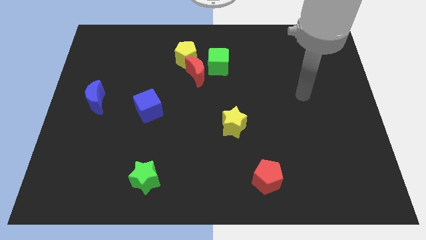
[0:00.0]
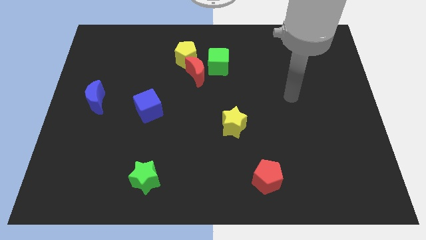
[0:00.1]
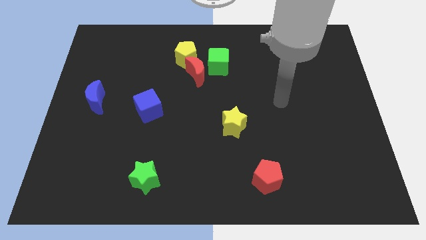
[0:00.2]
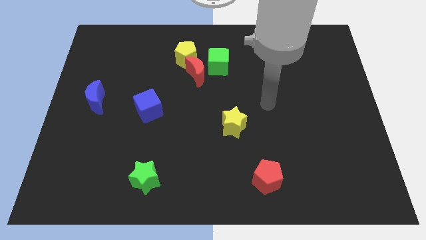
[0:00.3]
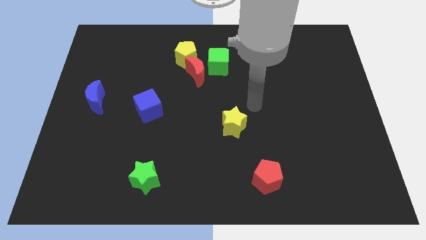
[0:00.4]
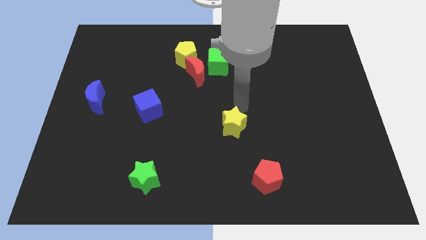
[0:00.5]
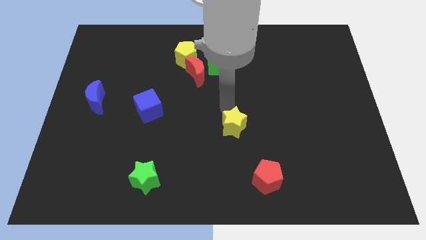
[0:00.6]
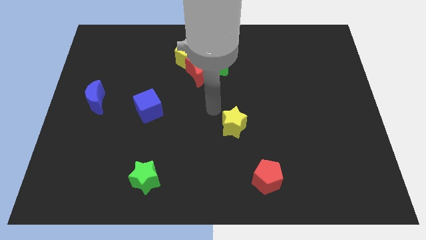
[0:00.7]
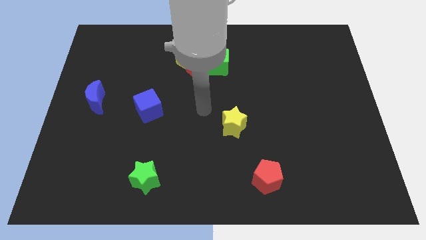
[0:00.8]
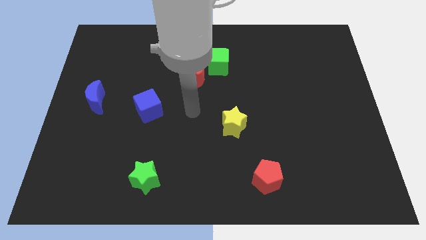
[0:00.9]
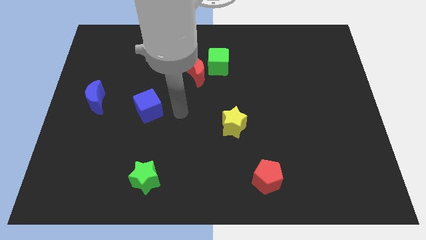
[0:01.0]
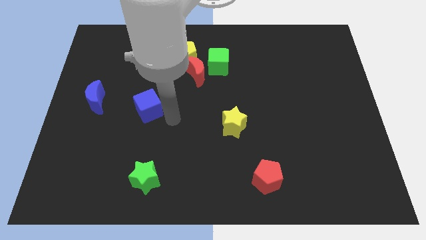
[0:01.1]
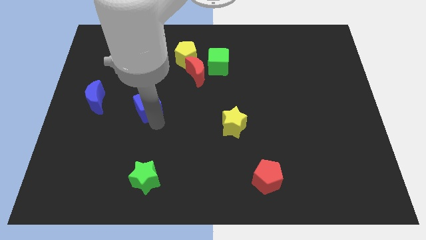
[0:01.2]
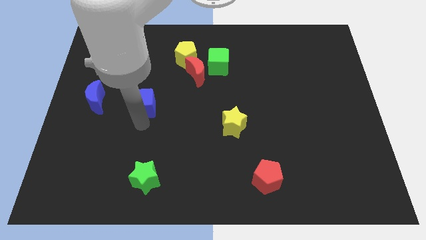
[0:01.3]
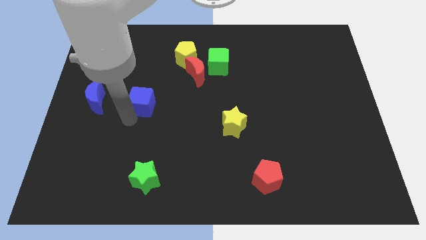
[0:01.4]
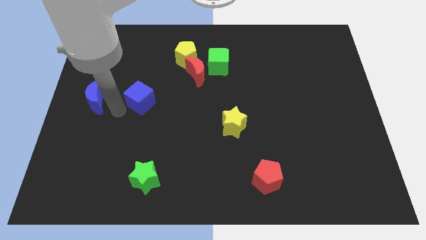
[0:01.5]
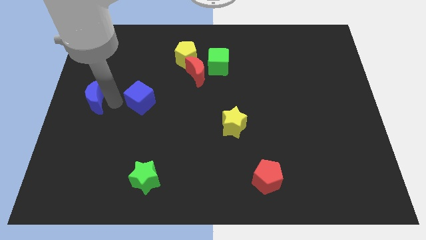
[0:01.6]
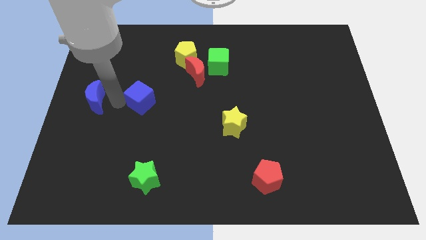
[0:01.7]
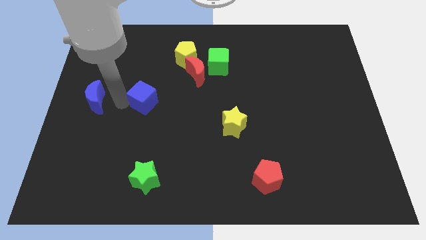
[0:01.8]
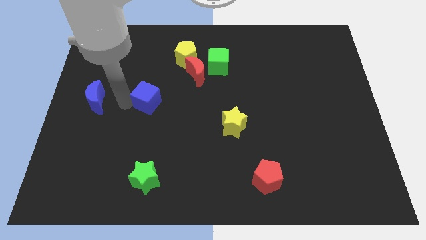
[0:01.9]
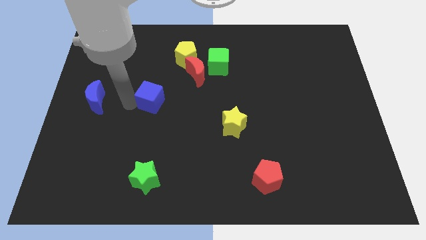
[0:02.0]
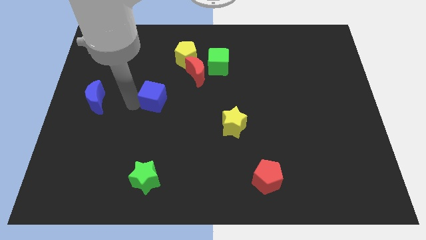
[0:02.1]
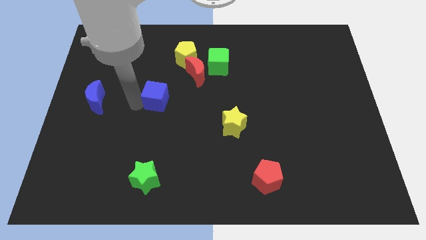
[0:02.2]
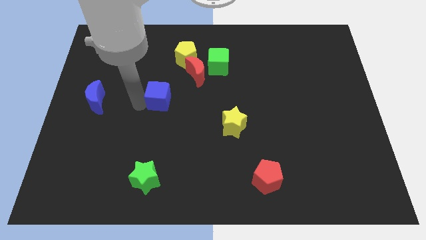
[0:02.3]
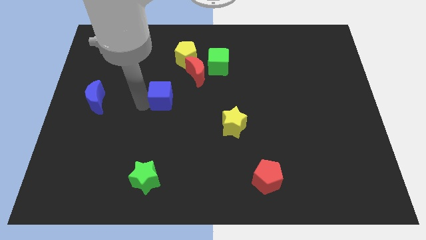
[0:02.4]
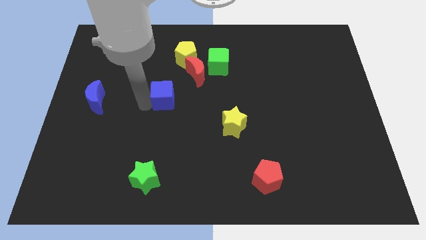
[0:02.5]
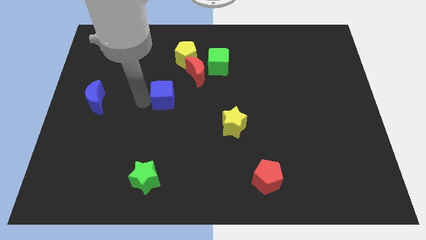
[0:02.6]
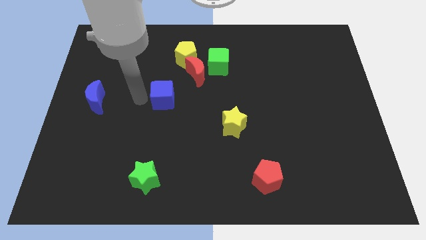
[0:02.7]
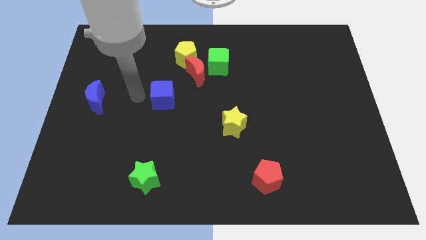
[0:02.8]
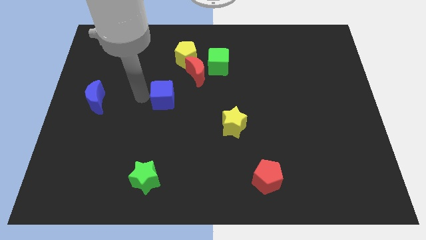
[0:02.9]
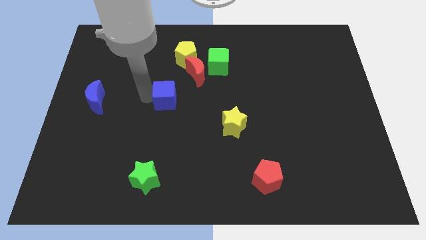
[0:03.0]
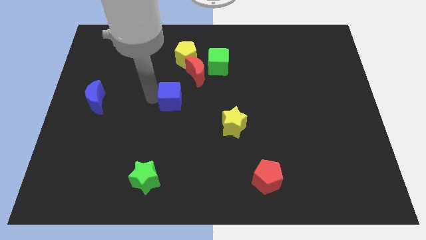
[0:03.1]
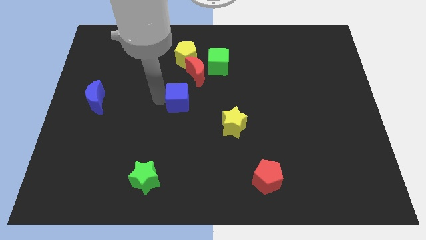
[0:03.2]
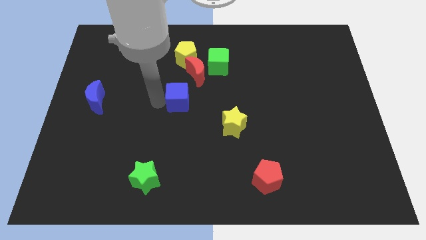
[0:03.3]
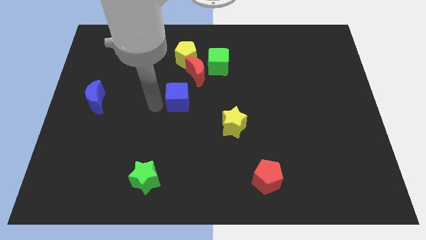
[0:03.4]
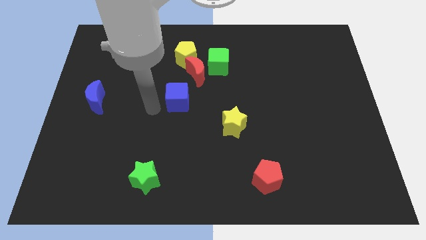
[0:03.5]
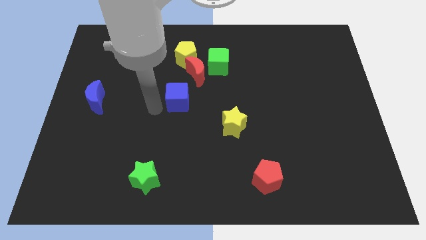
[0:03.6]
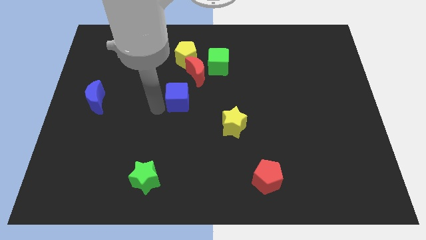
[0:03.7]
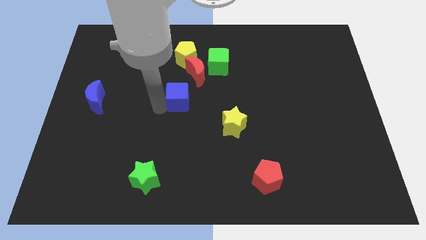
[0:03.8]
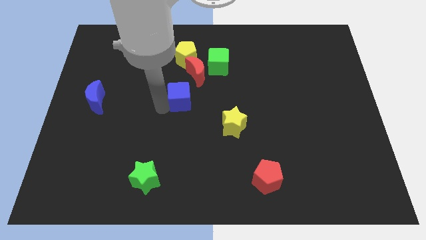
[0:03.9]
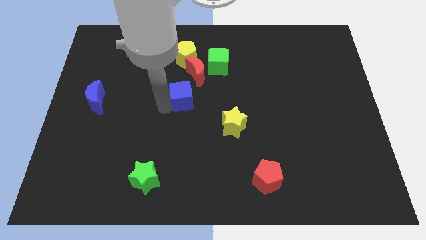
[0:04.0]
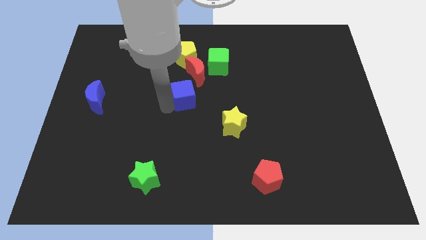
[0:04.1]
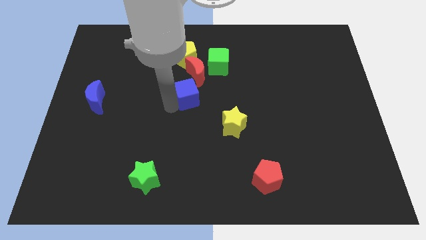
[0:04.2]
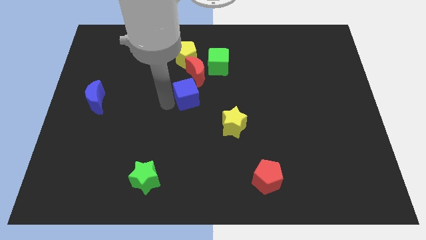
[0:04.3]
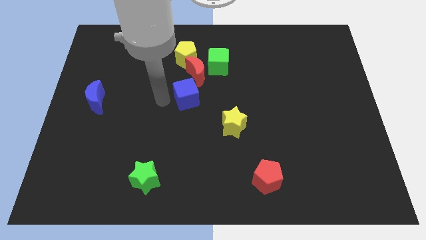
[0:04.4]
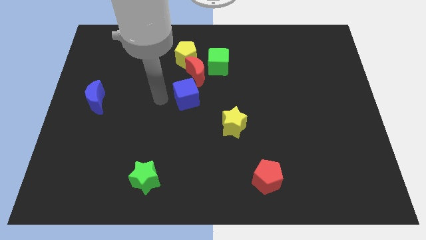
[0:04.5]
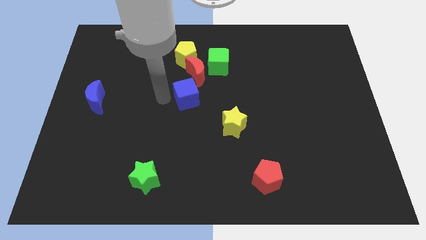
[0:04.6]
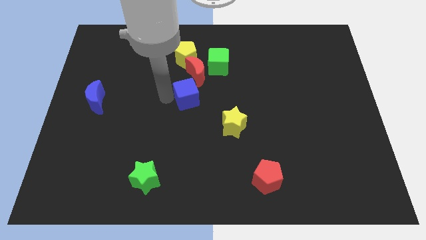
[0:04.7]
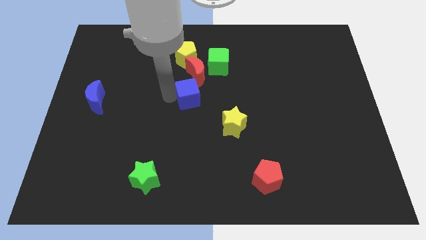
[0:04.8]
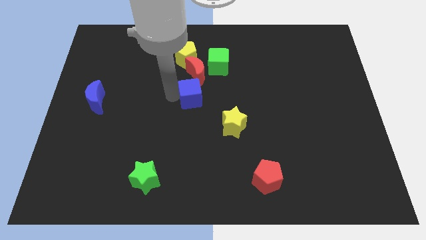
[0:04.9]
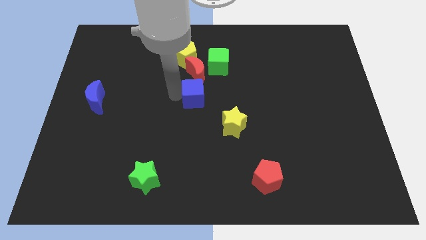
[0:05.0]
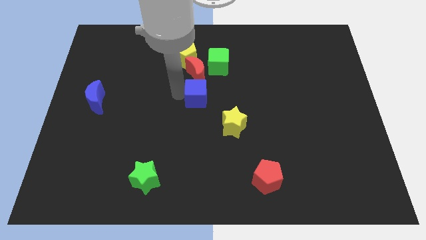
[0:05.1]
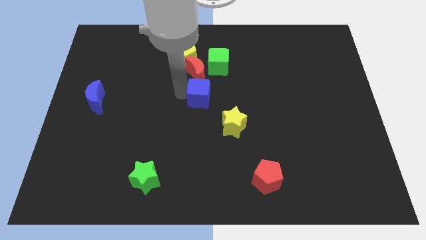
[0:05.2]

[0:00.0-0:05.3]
move the blue cube to the bottom side of the green cube

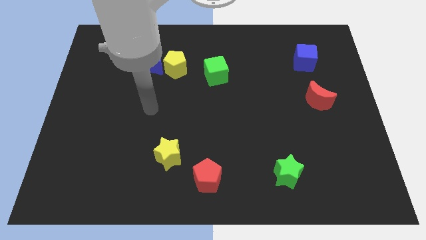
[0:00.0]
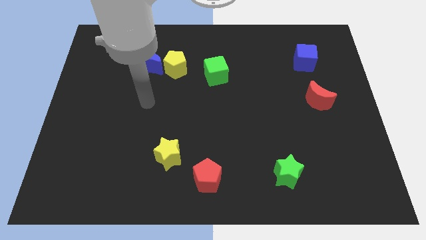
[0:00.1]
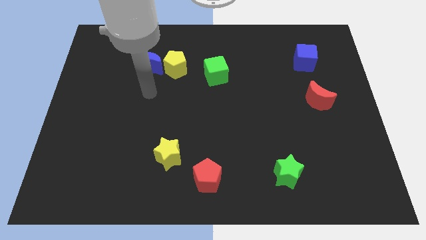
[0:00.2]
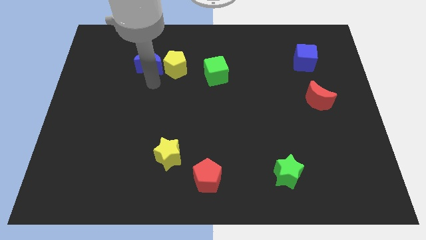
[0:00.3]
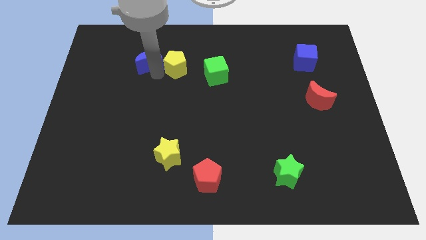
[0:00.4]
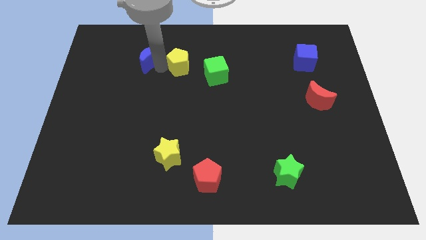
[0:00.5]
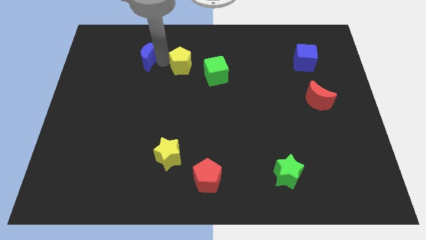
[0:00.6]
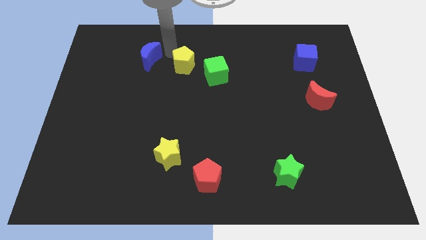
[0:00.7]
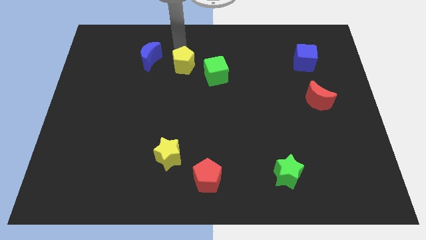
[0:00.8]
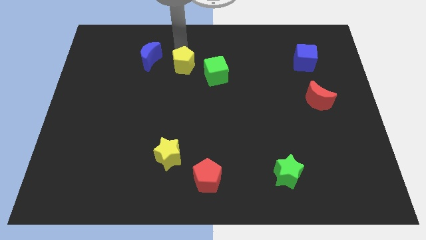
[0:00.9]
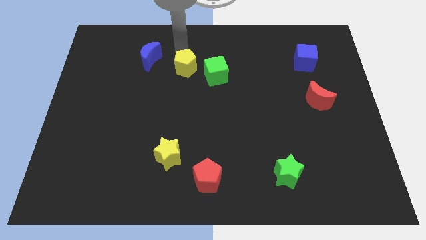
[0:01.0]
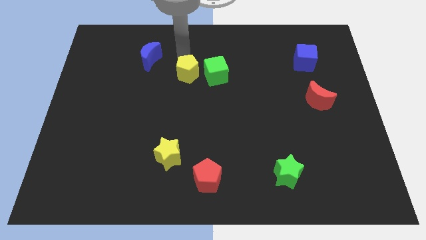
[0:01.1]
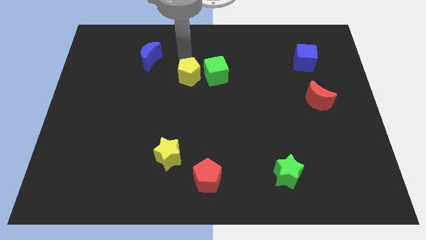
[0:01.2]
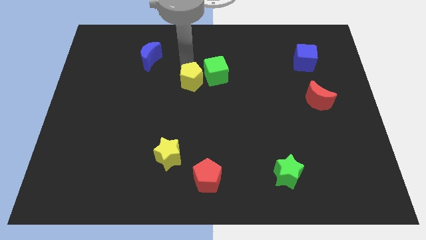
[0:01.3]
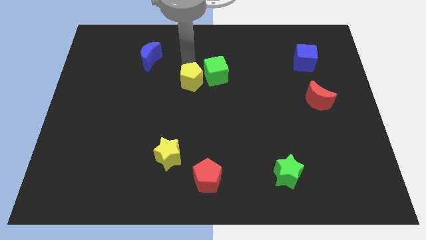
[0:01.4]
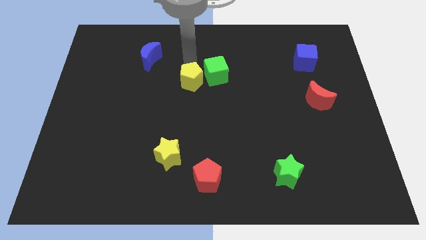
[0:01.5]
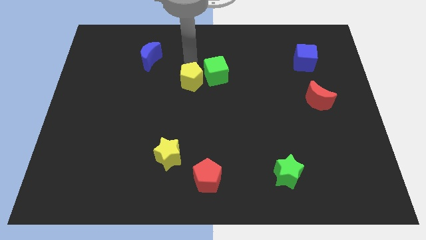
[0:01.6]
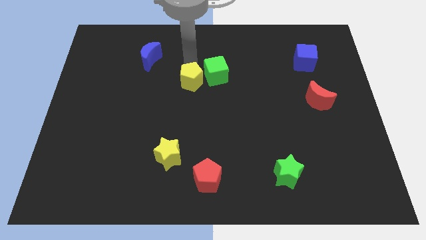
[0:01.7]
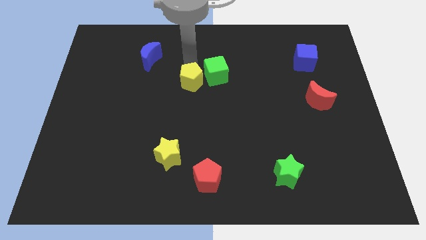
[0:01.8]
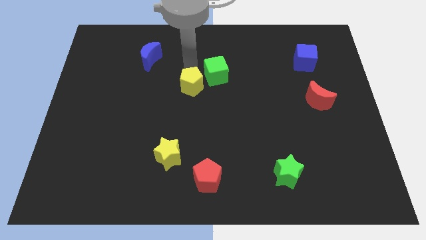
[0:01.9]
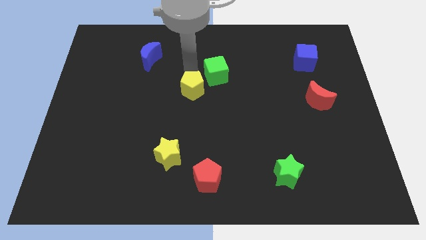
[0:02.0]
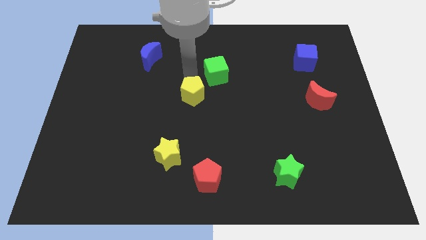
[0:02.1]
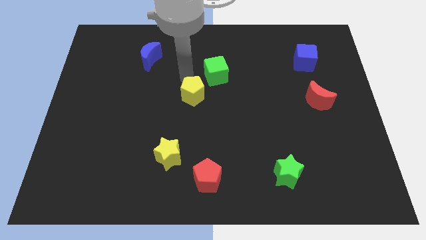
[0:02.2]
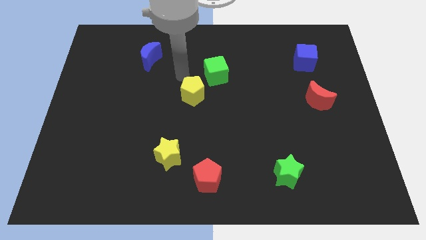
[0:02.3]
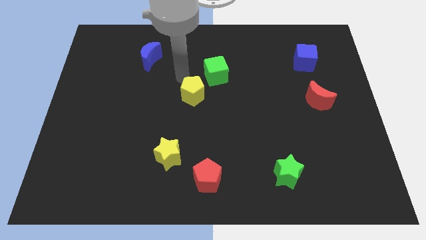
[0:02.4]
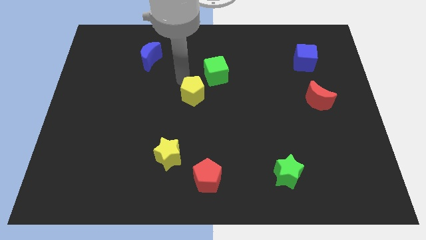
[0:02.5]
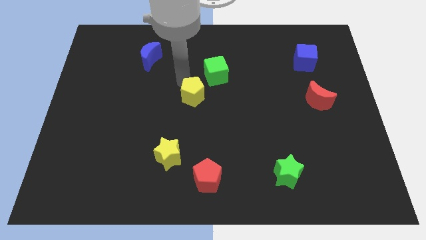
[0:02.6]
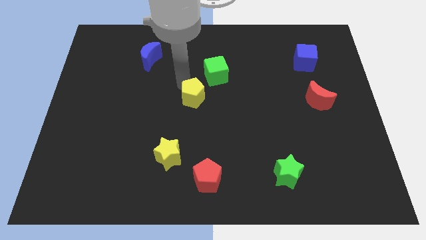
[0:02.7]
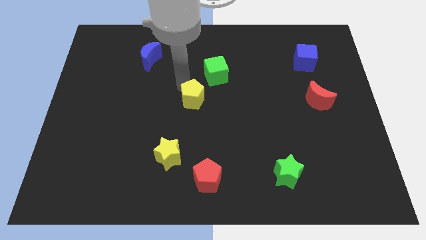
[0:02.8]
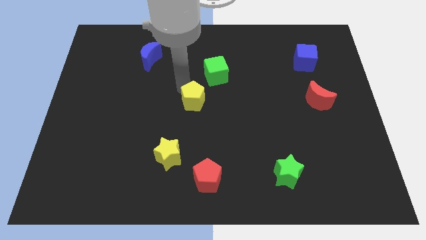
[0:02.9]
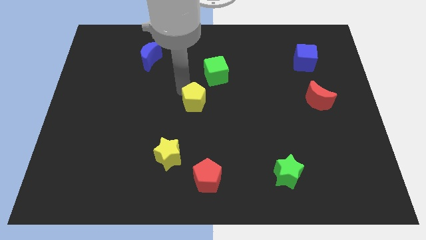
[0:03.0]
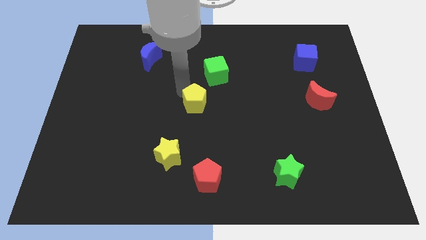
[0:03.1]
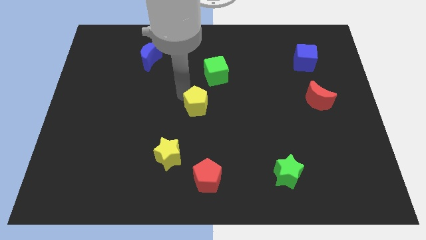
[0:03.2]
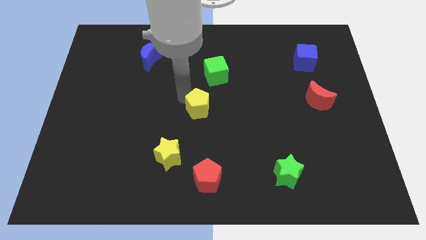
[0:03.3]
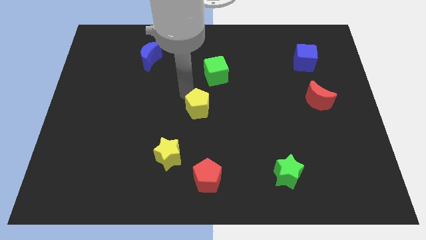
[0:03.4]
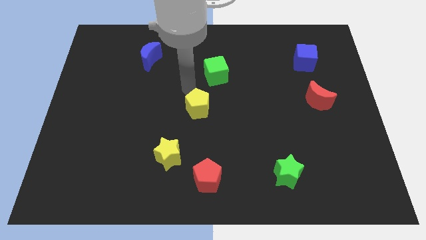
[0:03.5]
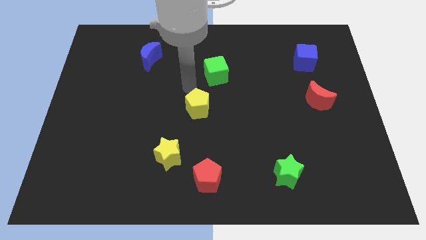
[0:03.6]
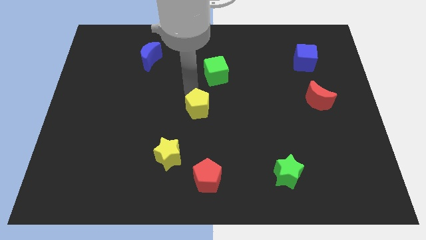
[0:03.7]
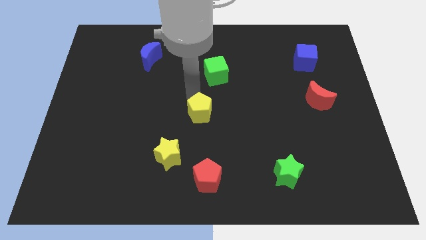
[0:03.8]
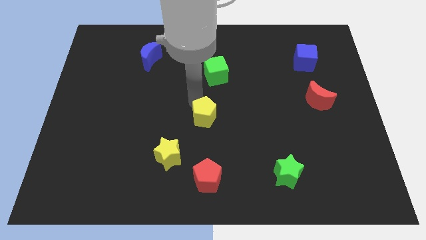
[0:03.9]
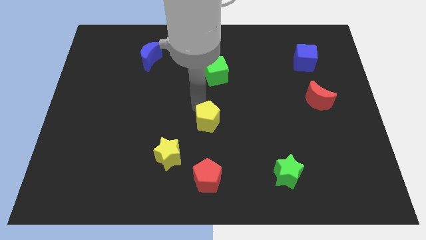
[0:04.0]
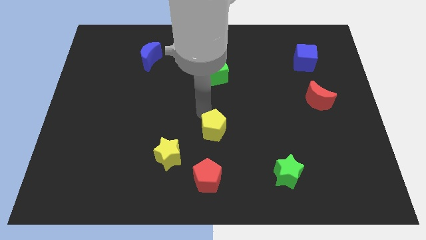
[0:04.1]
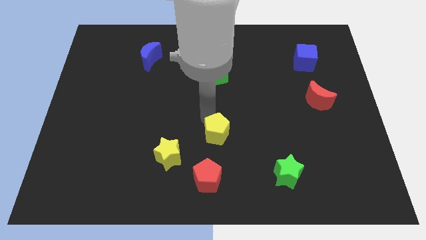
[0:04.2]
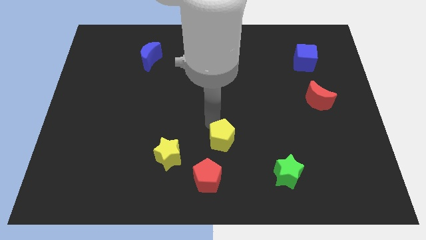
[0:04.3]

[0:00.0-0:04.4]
push the yellow pentagon to the right side of the yellow star
